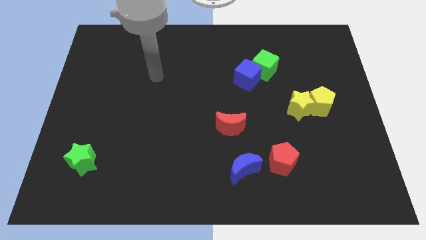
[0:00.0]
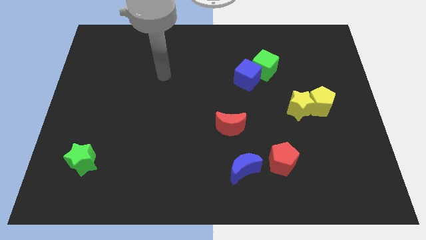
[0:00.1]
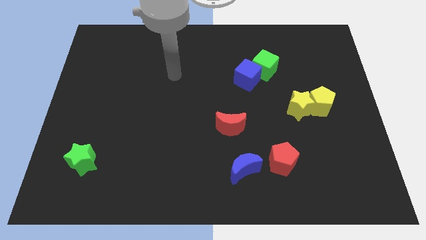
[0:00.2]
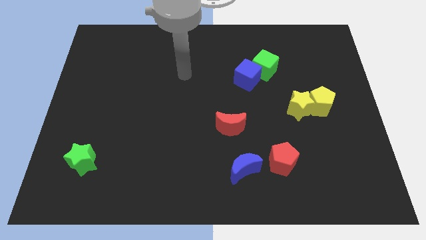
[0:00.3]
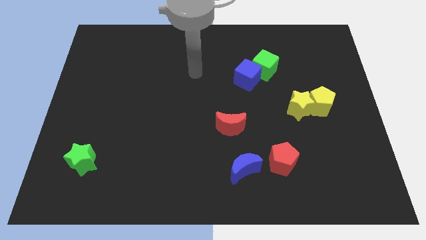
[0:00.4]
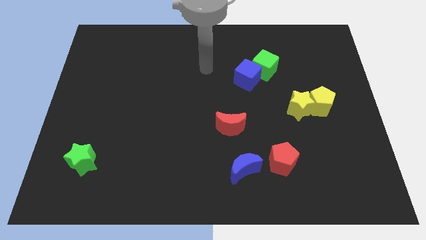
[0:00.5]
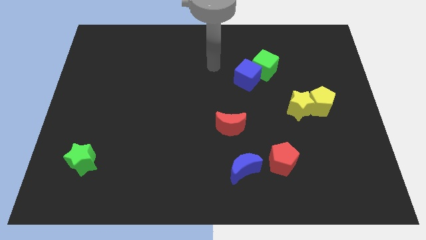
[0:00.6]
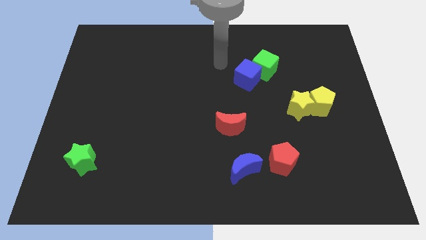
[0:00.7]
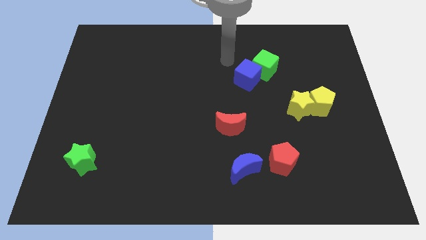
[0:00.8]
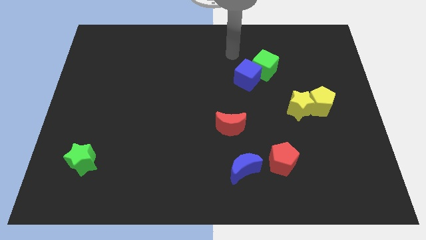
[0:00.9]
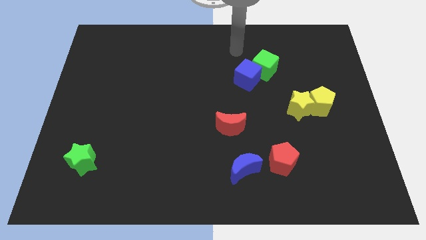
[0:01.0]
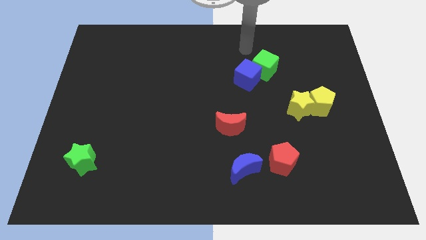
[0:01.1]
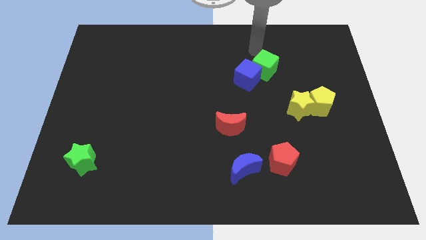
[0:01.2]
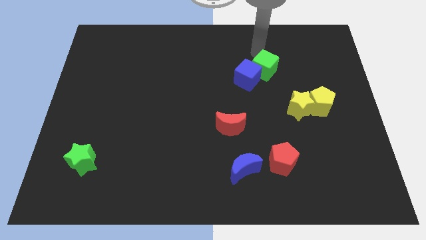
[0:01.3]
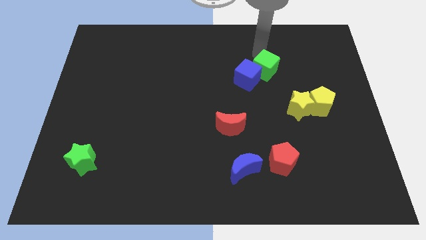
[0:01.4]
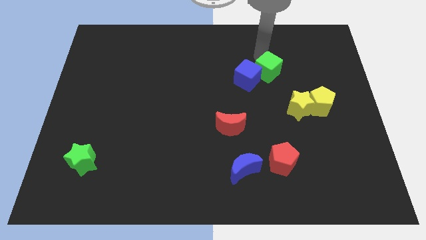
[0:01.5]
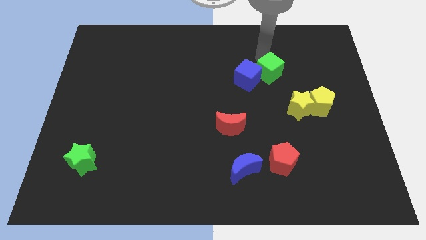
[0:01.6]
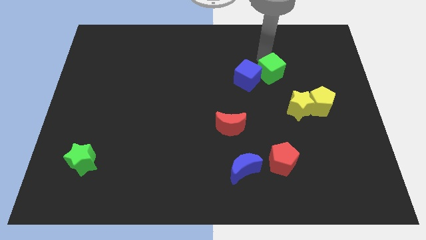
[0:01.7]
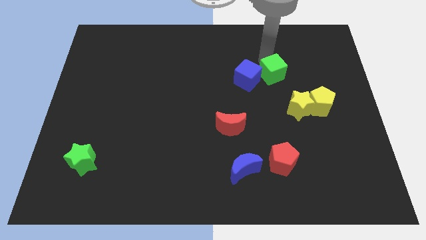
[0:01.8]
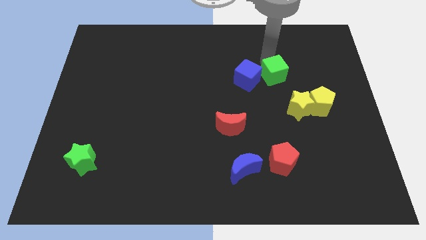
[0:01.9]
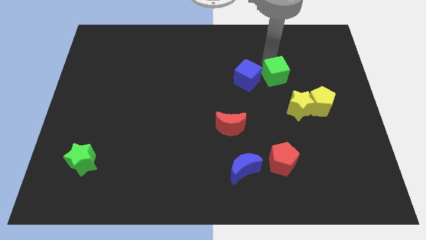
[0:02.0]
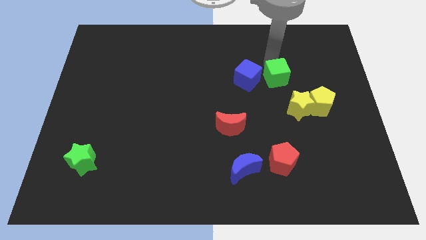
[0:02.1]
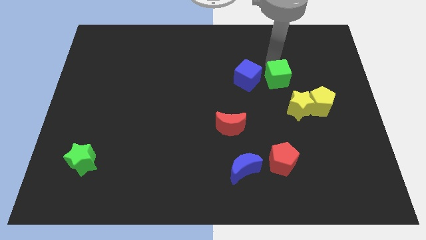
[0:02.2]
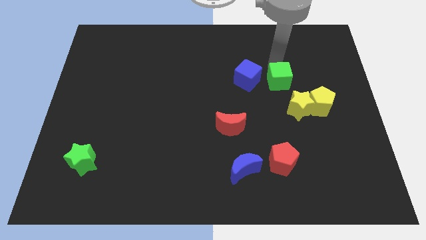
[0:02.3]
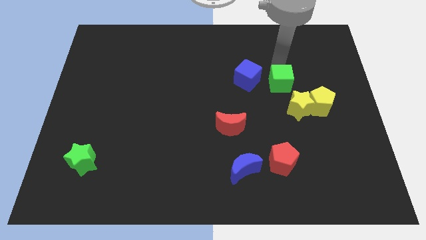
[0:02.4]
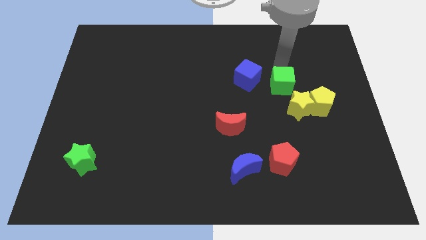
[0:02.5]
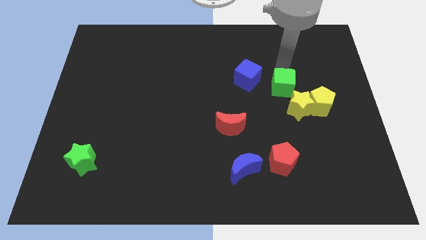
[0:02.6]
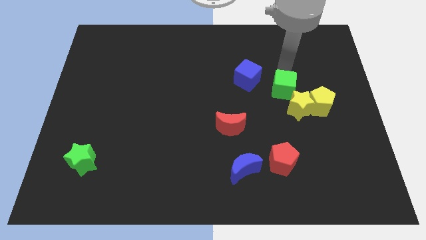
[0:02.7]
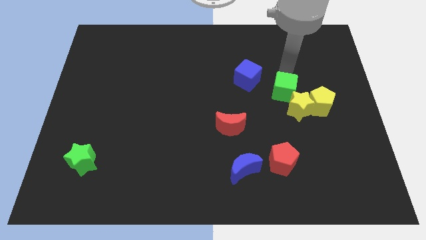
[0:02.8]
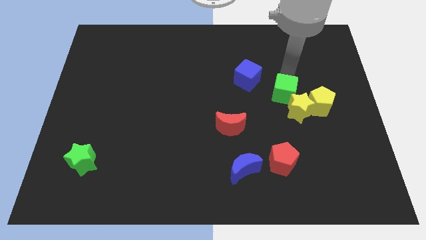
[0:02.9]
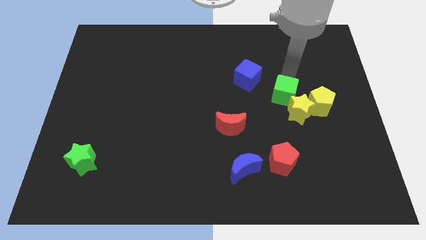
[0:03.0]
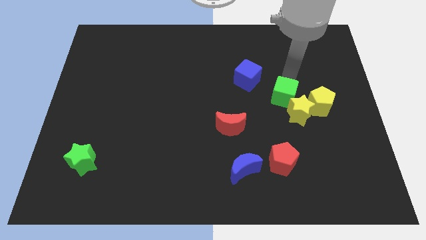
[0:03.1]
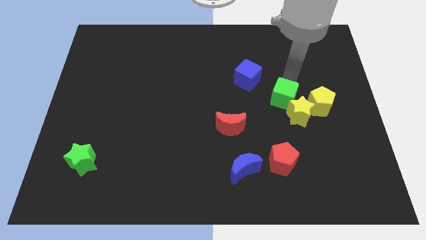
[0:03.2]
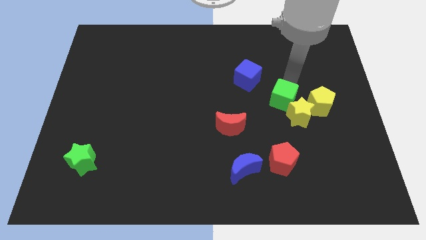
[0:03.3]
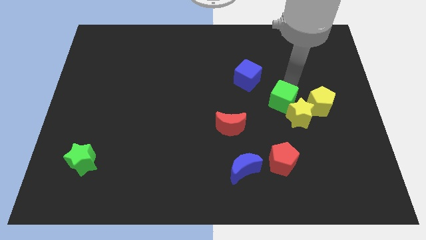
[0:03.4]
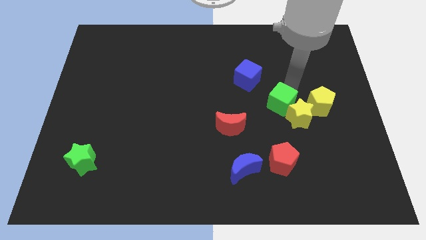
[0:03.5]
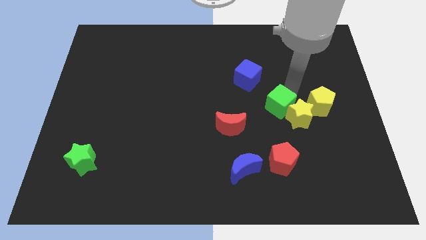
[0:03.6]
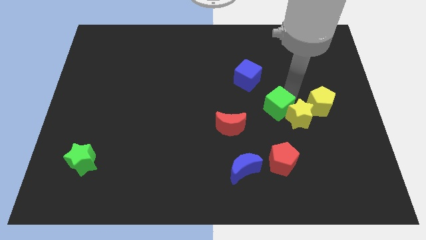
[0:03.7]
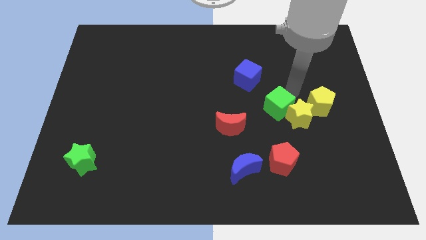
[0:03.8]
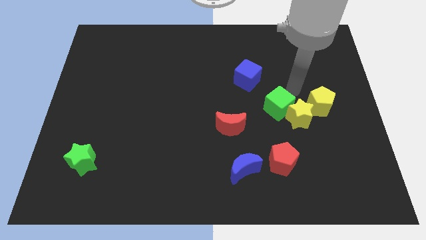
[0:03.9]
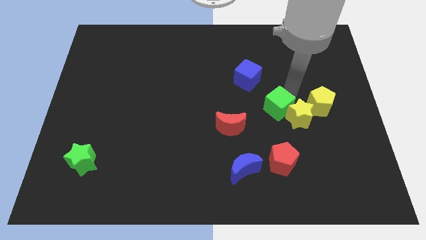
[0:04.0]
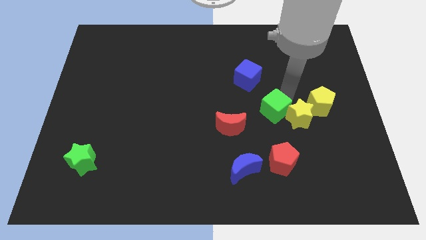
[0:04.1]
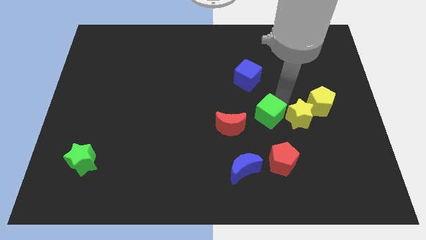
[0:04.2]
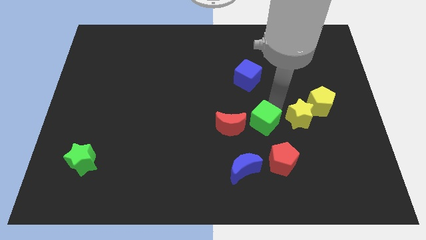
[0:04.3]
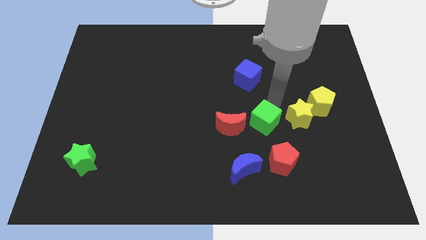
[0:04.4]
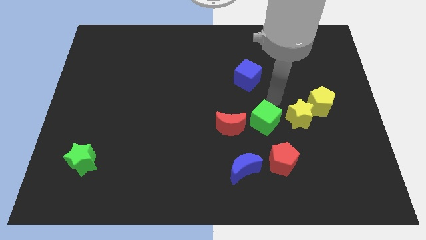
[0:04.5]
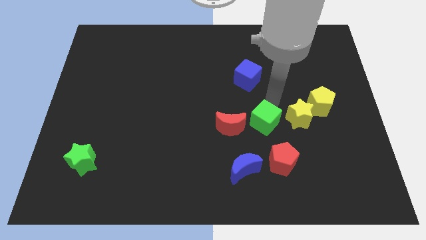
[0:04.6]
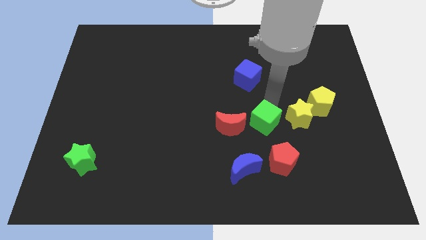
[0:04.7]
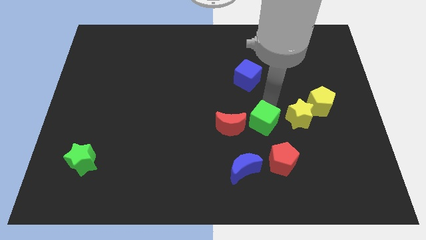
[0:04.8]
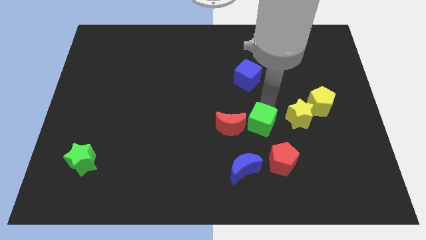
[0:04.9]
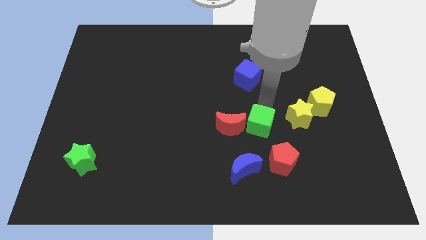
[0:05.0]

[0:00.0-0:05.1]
put the green cube to the top left side of the red pentagon

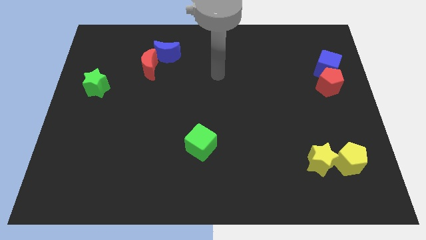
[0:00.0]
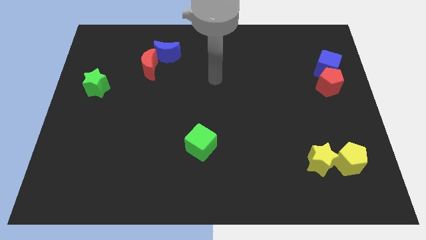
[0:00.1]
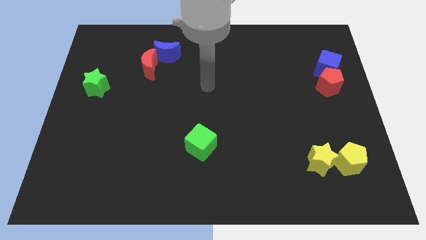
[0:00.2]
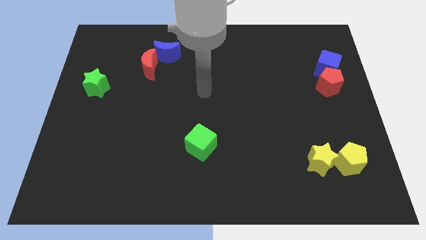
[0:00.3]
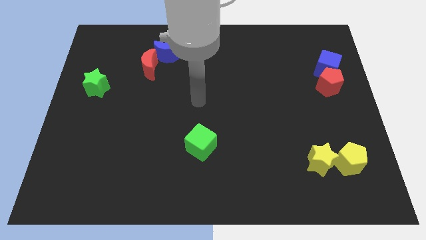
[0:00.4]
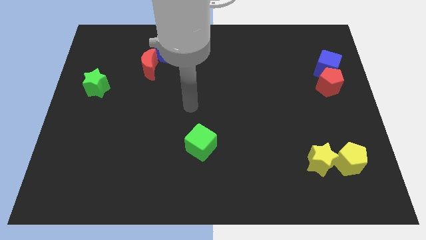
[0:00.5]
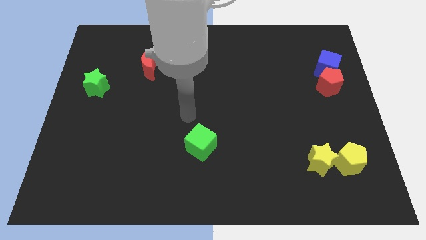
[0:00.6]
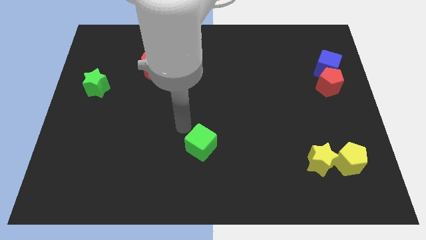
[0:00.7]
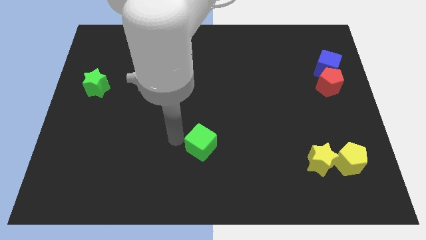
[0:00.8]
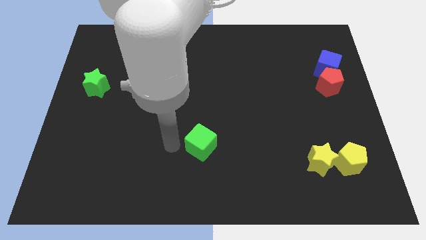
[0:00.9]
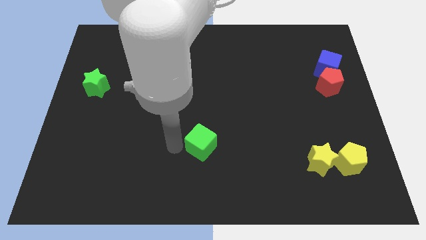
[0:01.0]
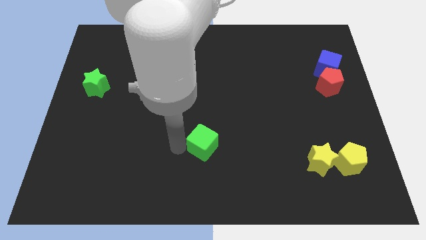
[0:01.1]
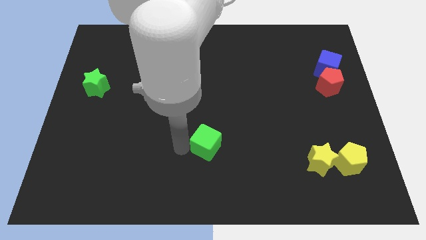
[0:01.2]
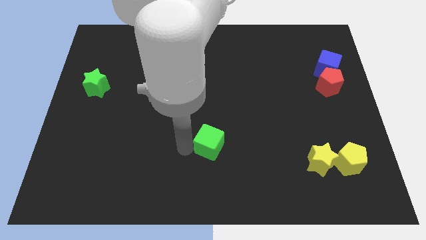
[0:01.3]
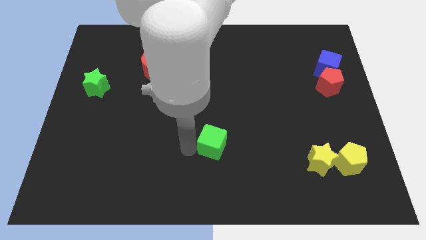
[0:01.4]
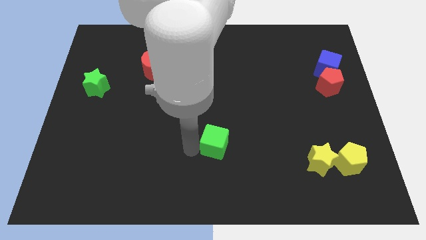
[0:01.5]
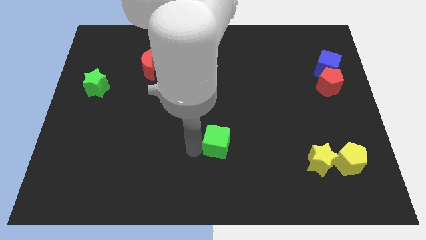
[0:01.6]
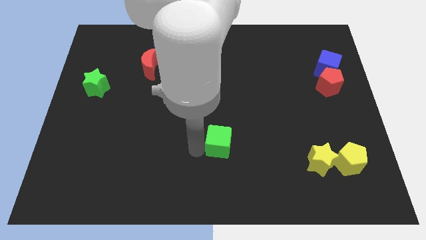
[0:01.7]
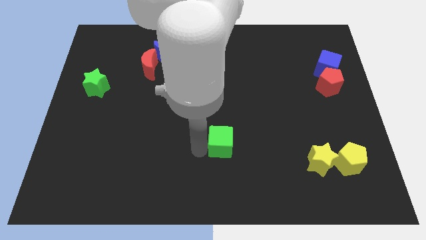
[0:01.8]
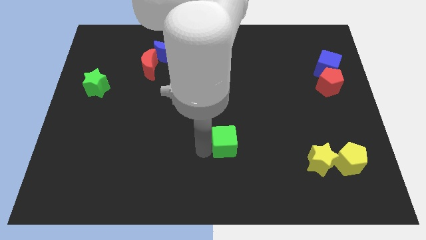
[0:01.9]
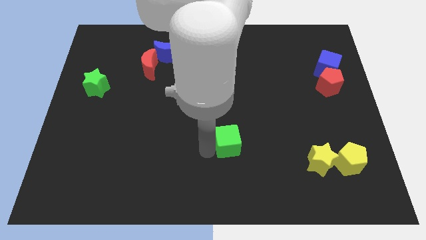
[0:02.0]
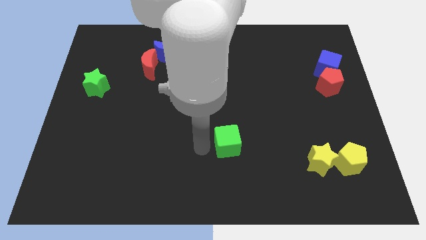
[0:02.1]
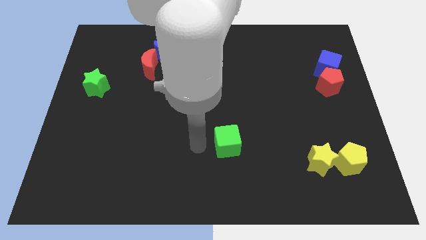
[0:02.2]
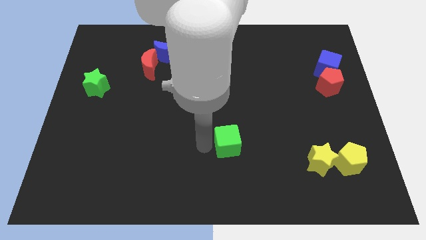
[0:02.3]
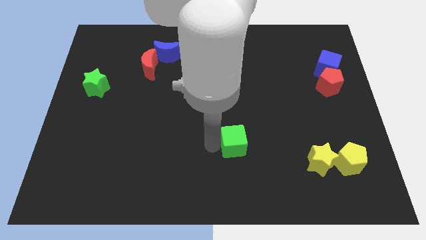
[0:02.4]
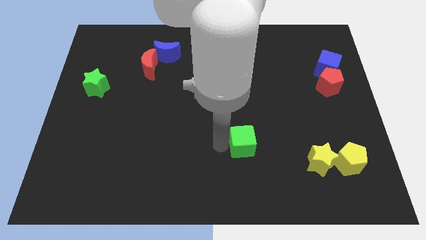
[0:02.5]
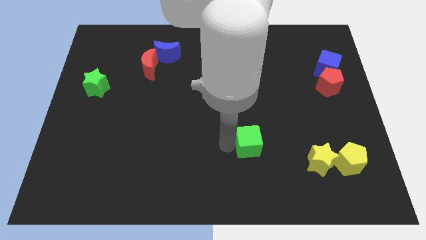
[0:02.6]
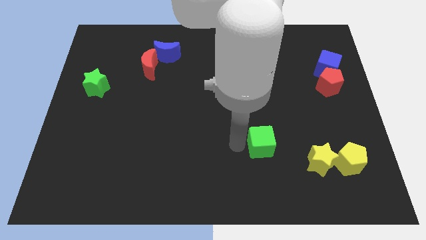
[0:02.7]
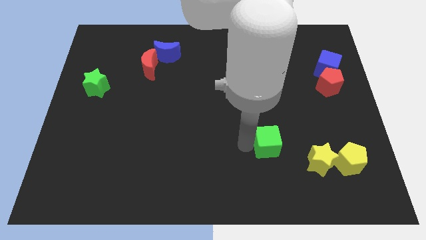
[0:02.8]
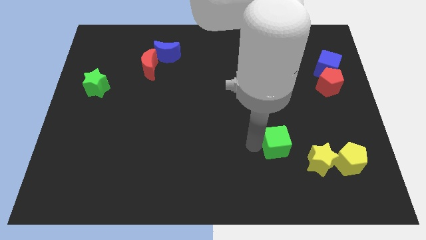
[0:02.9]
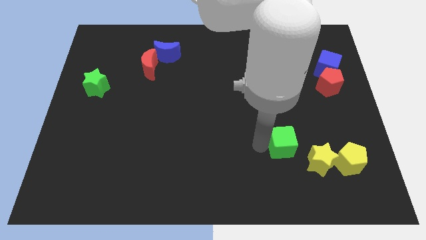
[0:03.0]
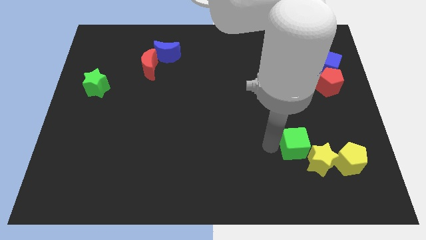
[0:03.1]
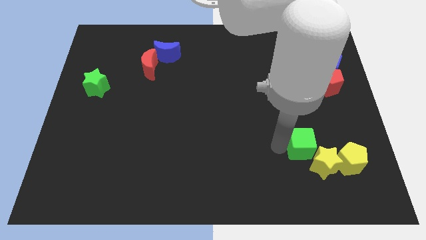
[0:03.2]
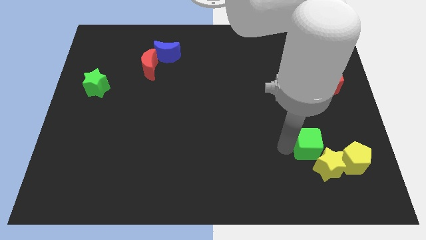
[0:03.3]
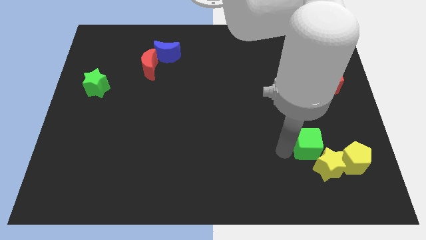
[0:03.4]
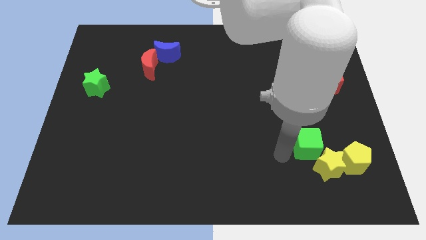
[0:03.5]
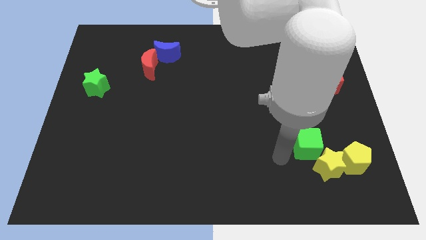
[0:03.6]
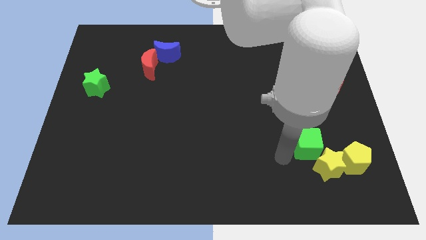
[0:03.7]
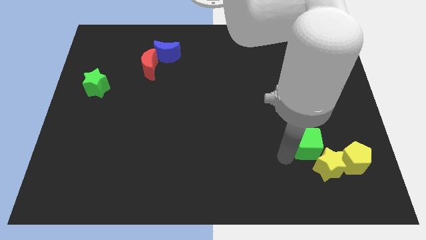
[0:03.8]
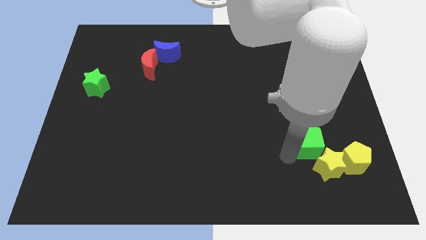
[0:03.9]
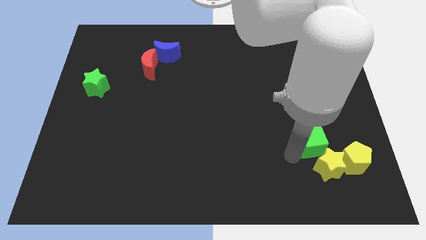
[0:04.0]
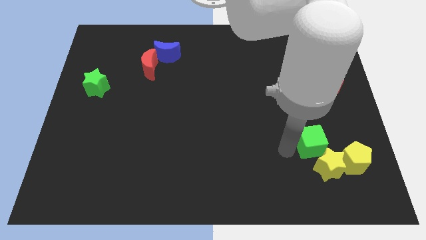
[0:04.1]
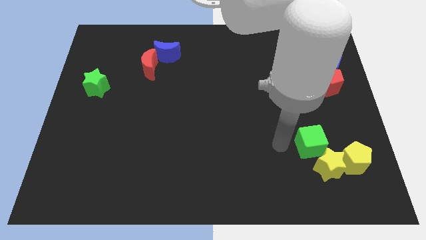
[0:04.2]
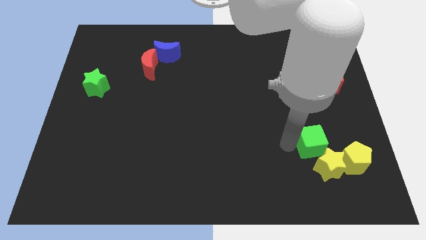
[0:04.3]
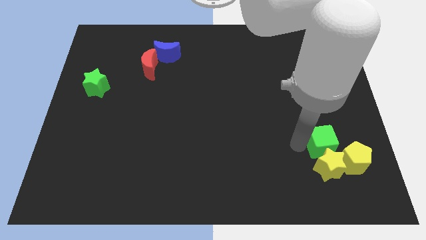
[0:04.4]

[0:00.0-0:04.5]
slide the green cube to the top right of the yellow star
